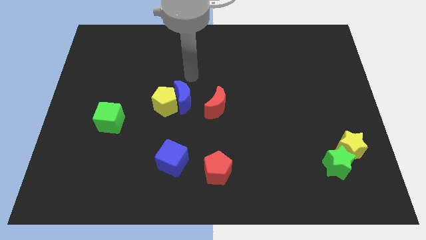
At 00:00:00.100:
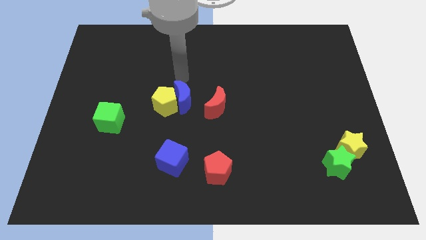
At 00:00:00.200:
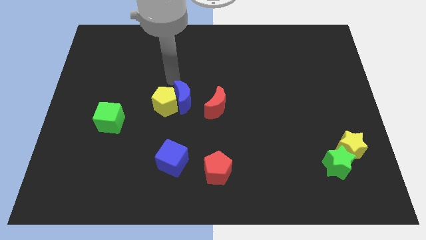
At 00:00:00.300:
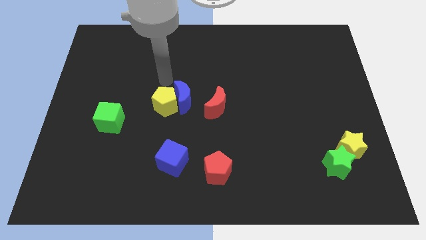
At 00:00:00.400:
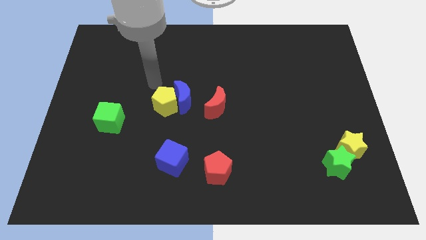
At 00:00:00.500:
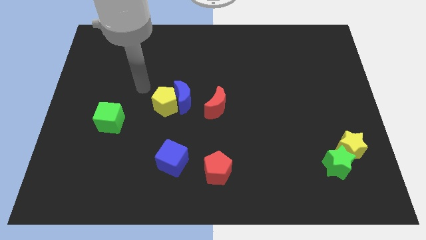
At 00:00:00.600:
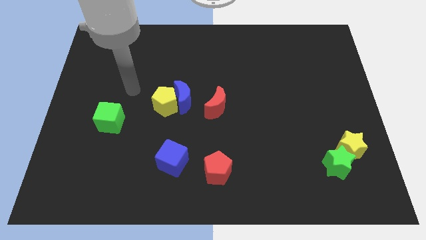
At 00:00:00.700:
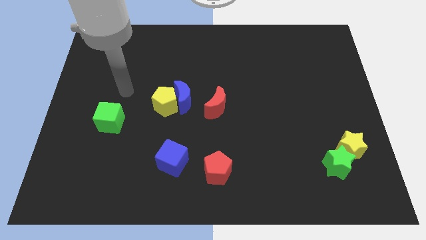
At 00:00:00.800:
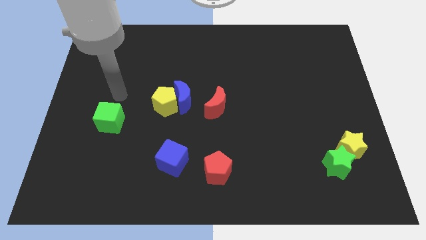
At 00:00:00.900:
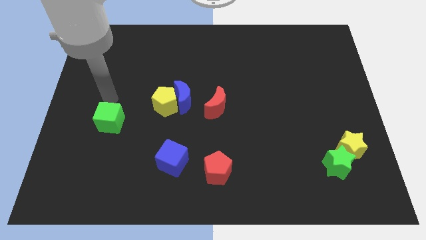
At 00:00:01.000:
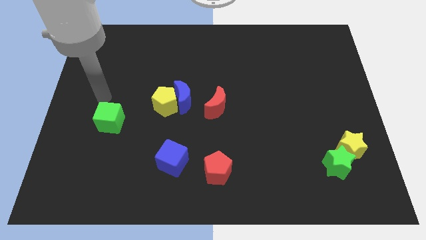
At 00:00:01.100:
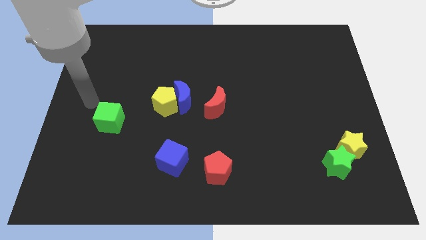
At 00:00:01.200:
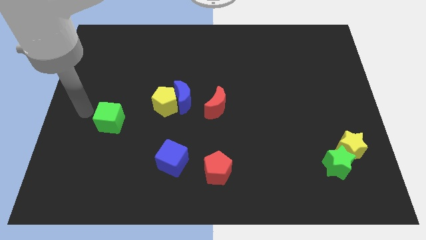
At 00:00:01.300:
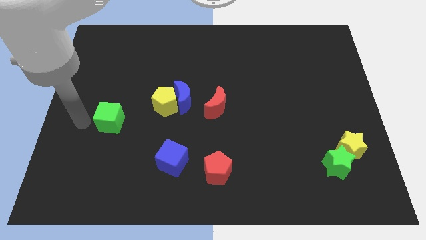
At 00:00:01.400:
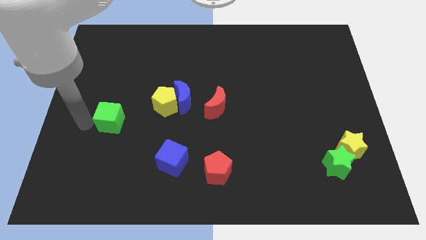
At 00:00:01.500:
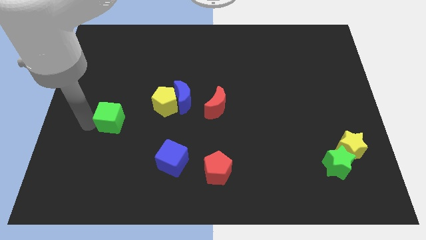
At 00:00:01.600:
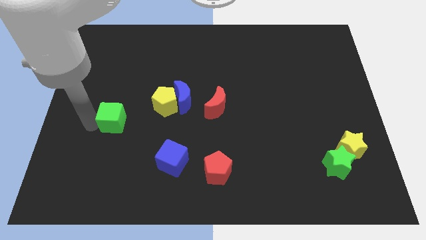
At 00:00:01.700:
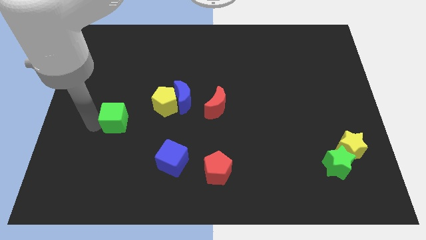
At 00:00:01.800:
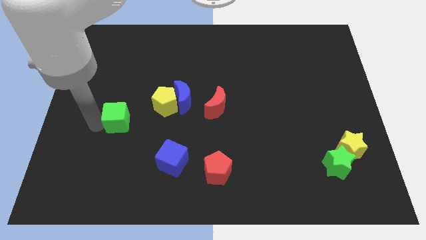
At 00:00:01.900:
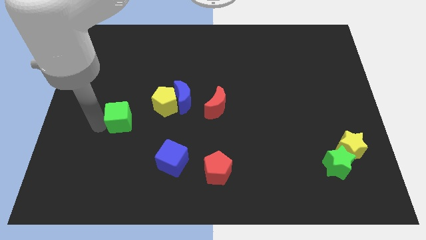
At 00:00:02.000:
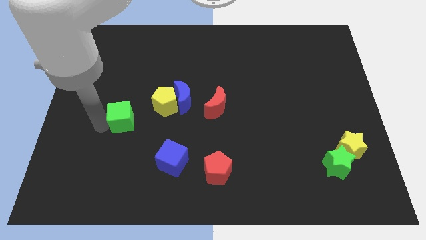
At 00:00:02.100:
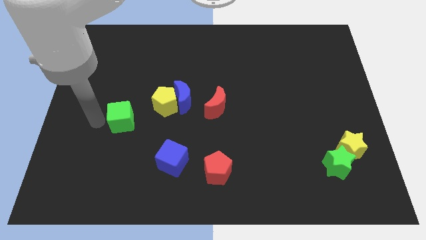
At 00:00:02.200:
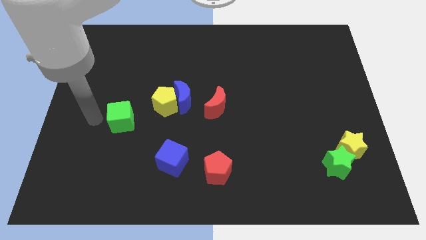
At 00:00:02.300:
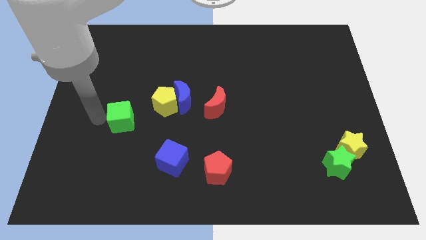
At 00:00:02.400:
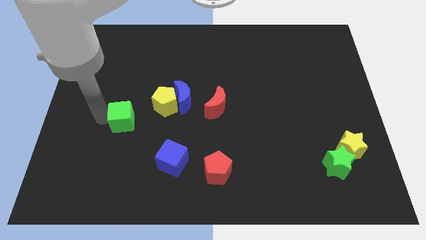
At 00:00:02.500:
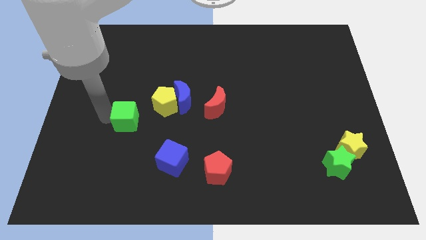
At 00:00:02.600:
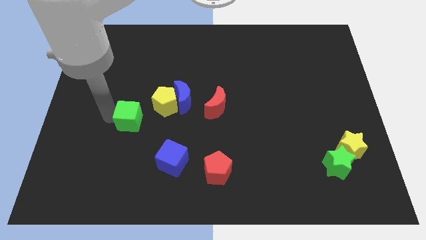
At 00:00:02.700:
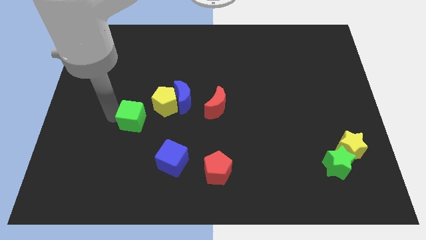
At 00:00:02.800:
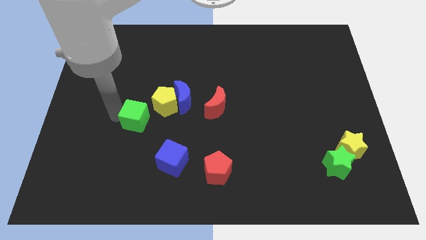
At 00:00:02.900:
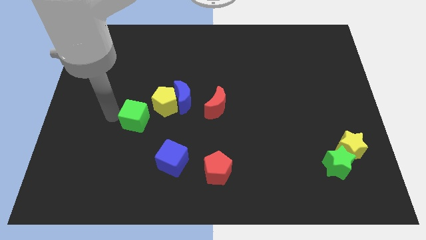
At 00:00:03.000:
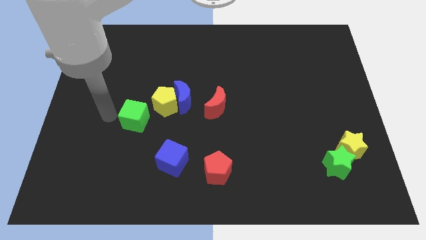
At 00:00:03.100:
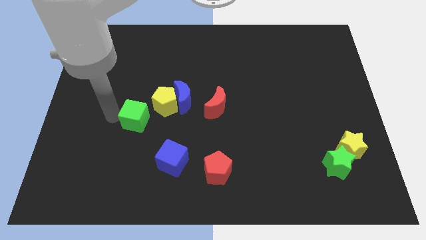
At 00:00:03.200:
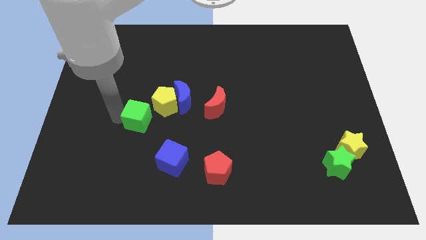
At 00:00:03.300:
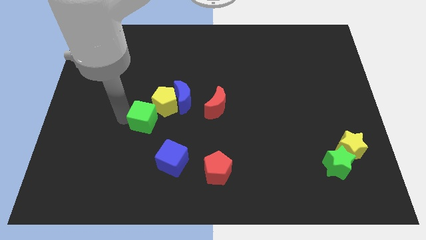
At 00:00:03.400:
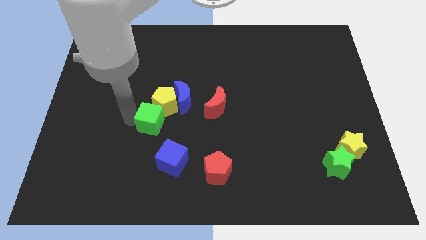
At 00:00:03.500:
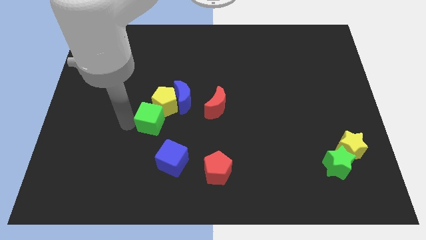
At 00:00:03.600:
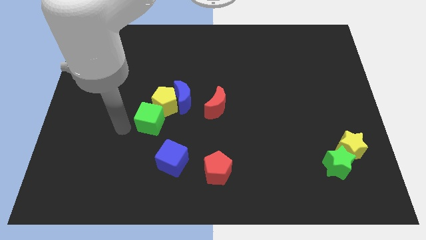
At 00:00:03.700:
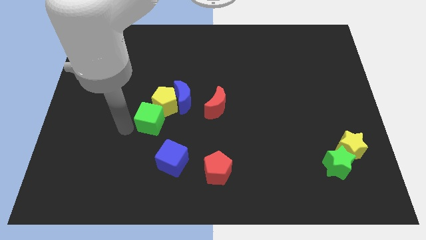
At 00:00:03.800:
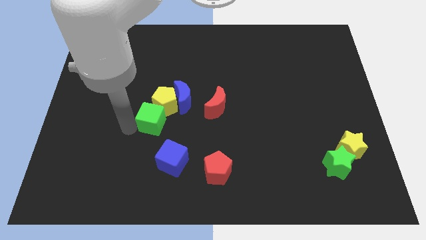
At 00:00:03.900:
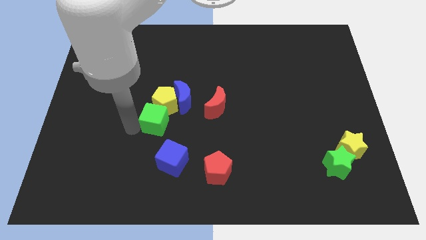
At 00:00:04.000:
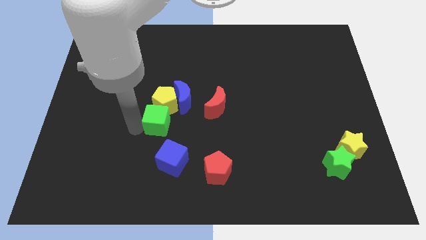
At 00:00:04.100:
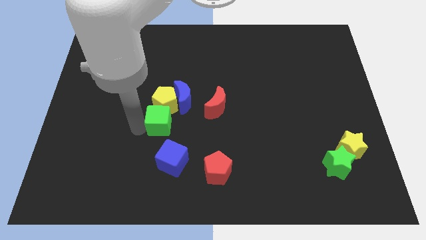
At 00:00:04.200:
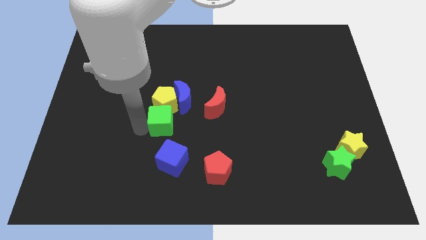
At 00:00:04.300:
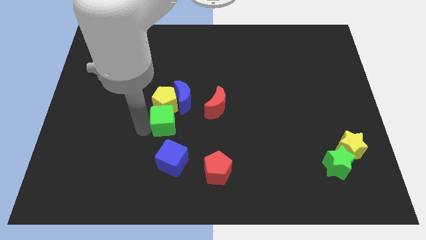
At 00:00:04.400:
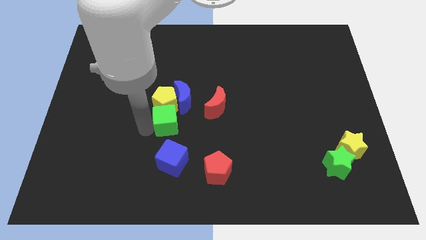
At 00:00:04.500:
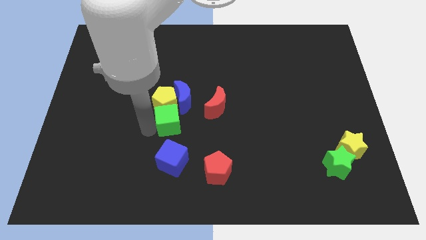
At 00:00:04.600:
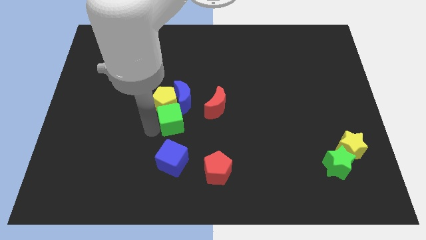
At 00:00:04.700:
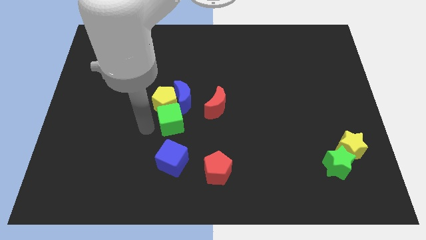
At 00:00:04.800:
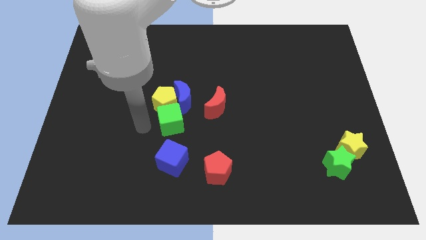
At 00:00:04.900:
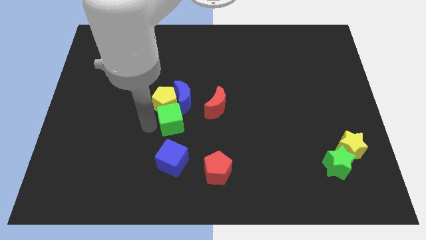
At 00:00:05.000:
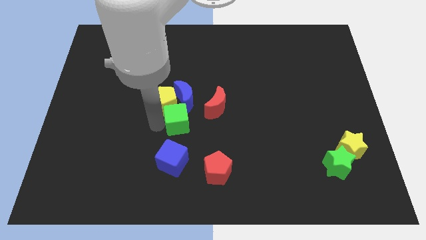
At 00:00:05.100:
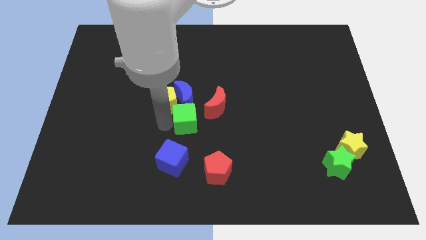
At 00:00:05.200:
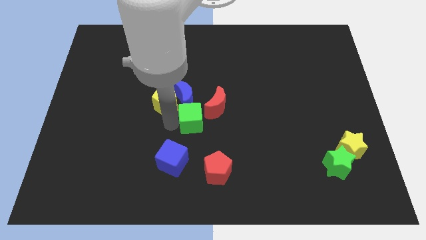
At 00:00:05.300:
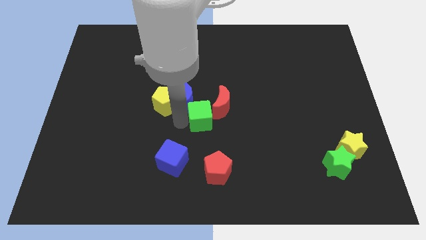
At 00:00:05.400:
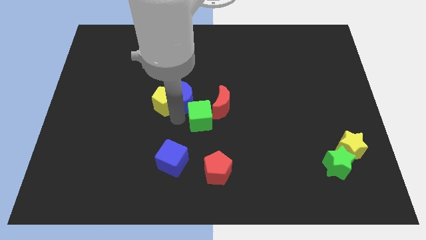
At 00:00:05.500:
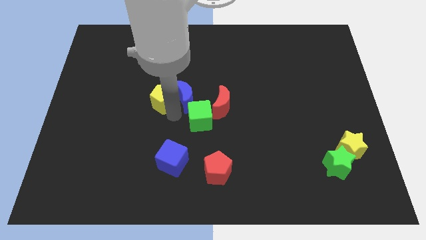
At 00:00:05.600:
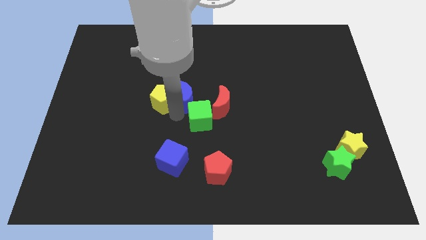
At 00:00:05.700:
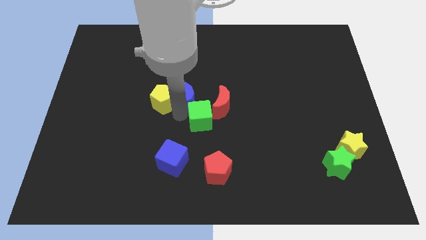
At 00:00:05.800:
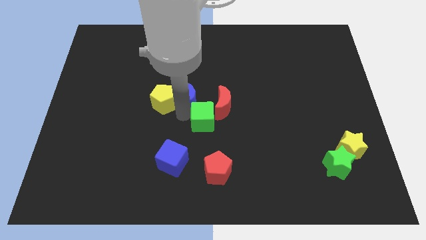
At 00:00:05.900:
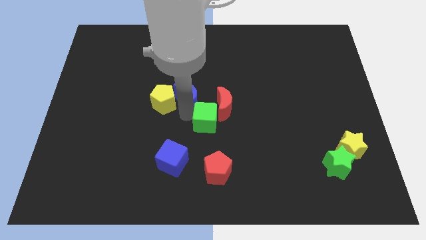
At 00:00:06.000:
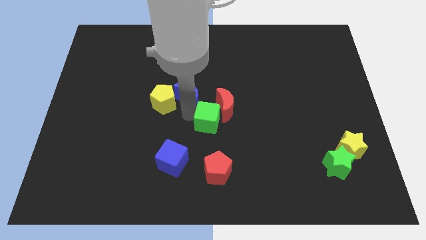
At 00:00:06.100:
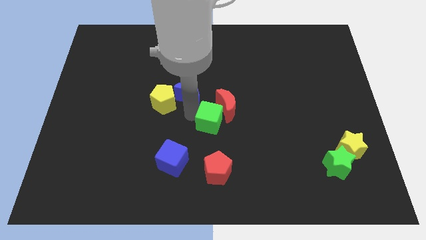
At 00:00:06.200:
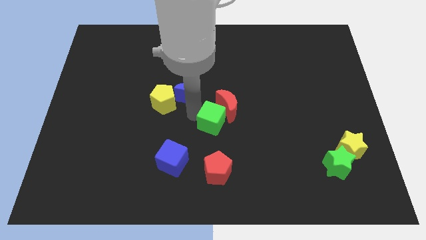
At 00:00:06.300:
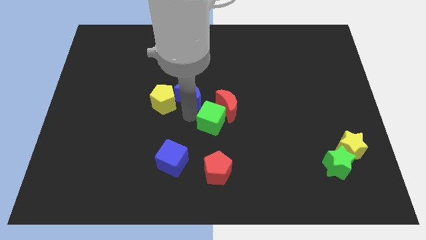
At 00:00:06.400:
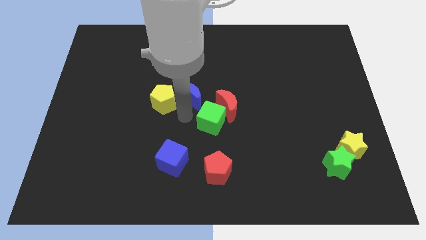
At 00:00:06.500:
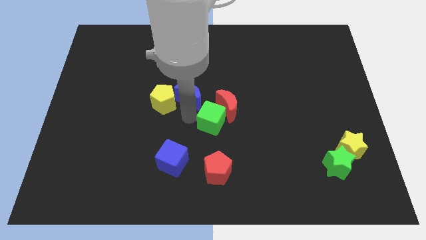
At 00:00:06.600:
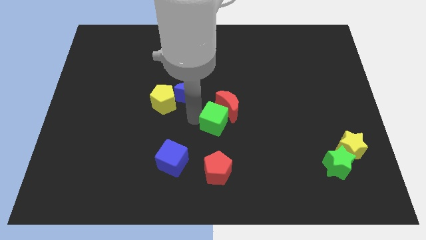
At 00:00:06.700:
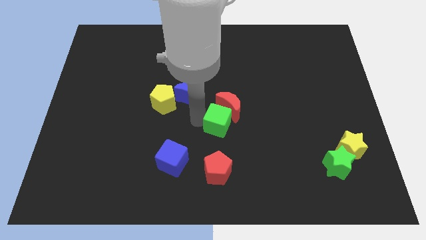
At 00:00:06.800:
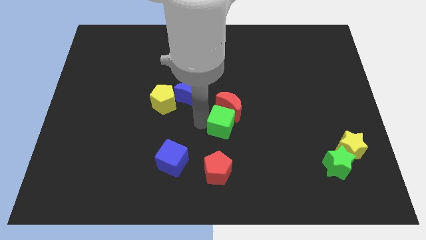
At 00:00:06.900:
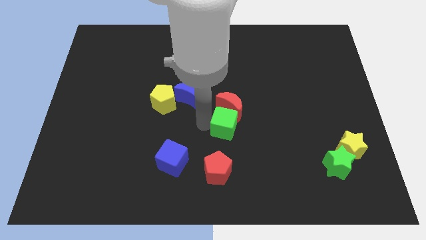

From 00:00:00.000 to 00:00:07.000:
move the green cube to the bottom right side of the red moon
